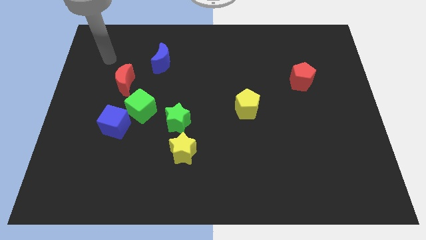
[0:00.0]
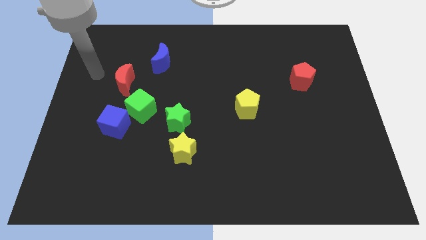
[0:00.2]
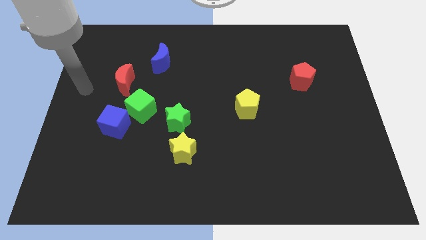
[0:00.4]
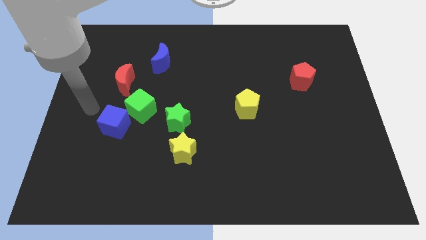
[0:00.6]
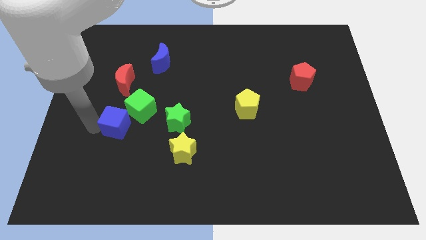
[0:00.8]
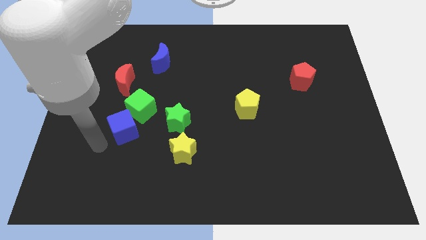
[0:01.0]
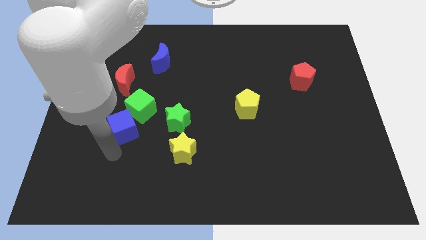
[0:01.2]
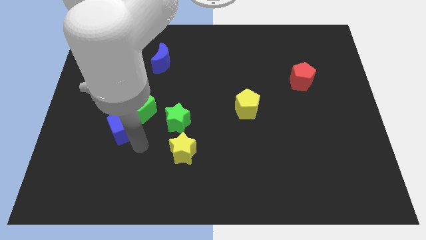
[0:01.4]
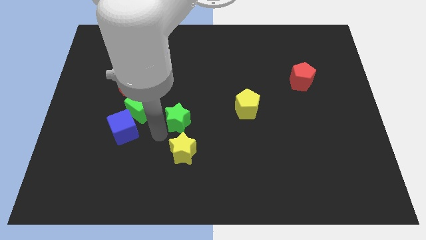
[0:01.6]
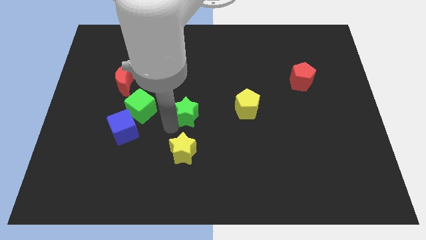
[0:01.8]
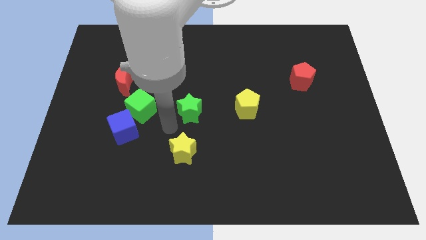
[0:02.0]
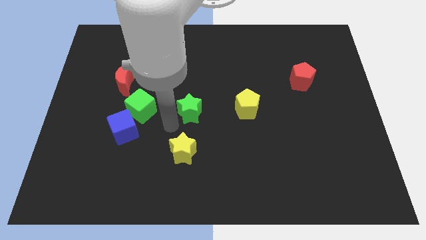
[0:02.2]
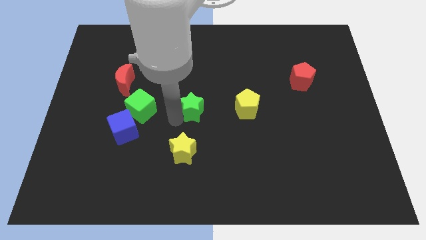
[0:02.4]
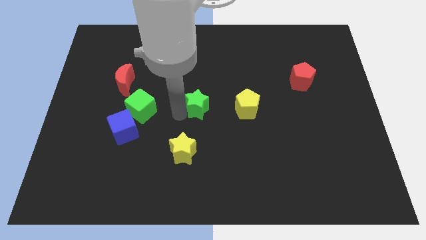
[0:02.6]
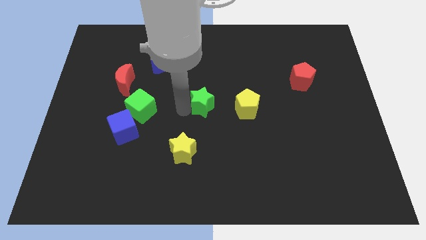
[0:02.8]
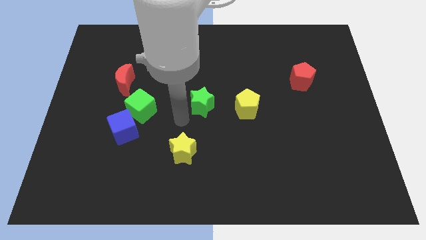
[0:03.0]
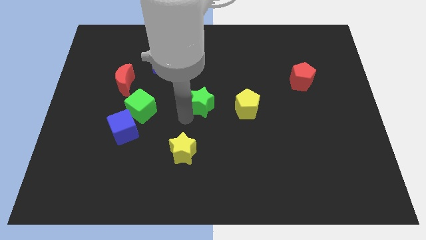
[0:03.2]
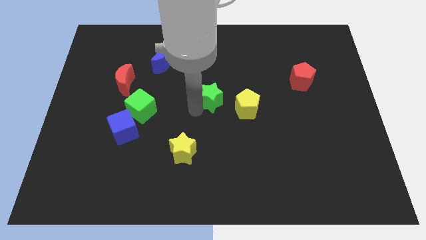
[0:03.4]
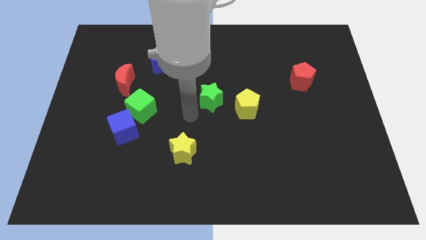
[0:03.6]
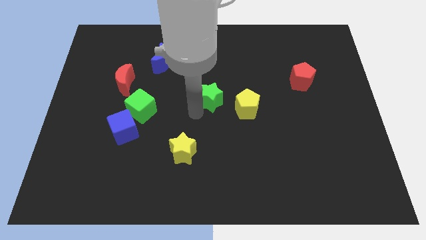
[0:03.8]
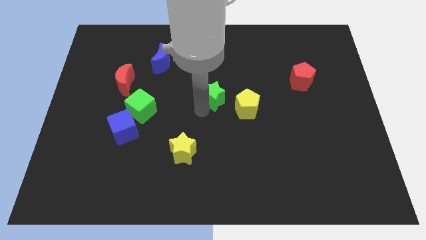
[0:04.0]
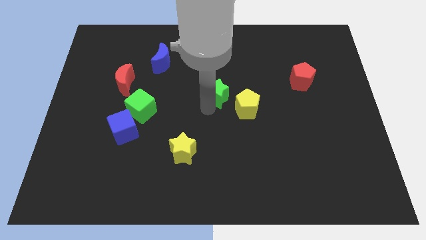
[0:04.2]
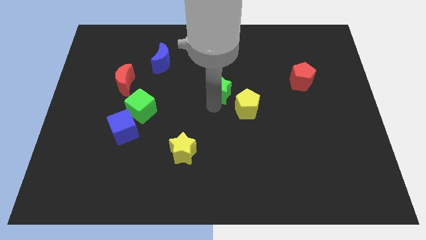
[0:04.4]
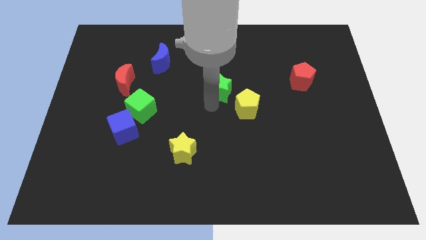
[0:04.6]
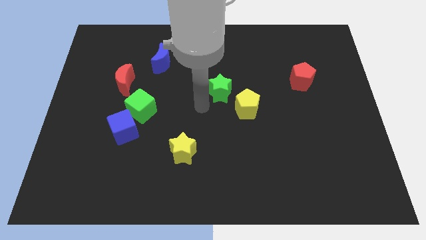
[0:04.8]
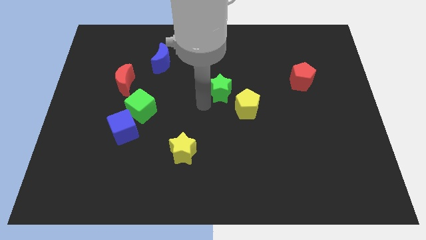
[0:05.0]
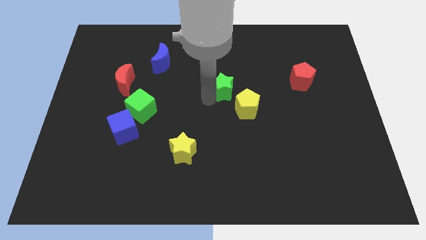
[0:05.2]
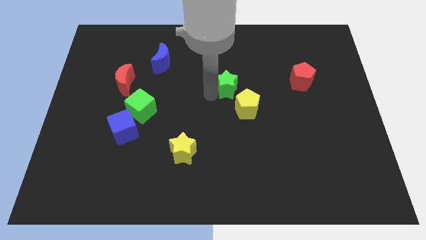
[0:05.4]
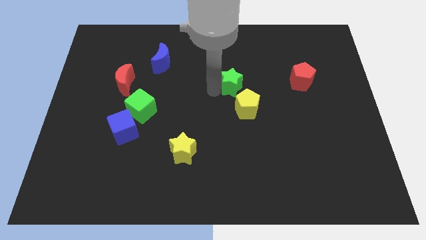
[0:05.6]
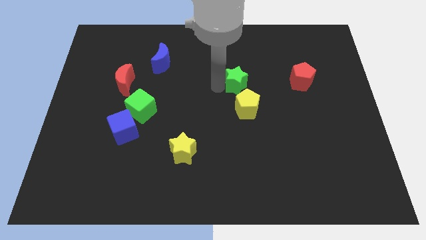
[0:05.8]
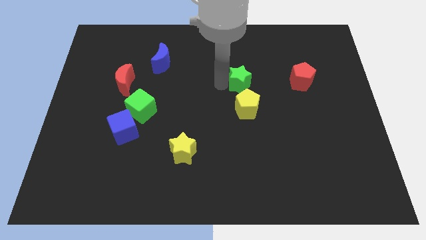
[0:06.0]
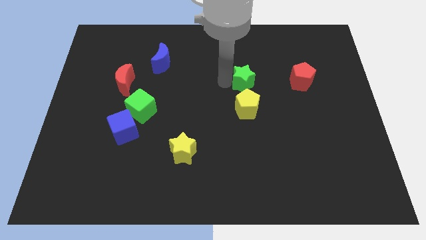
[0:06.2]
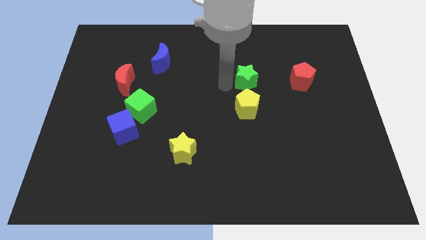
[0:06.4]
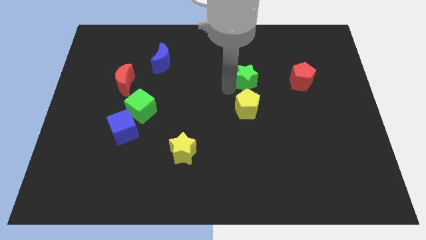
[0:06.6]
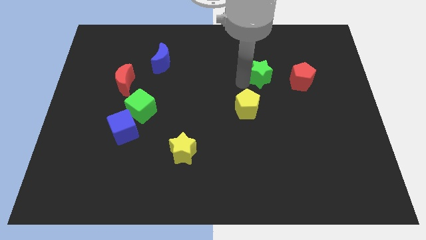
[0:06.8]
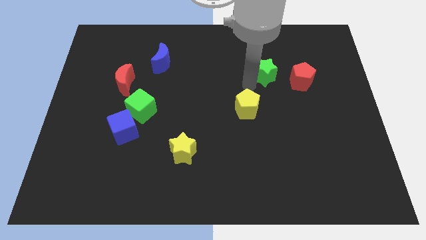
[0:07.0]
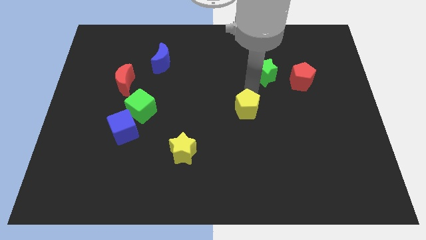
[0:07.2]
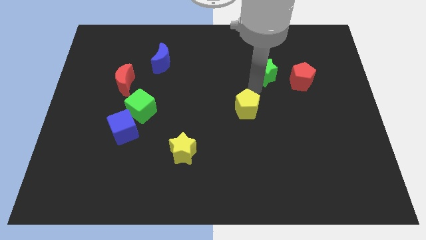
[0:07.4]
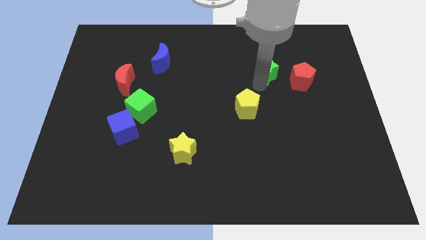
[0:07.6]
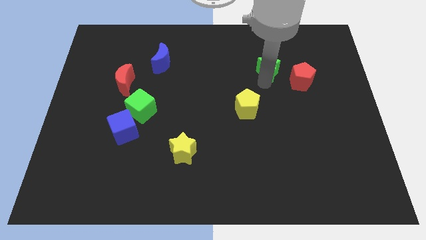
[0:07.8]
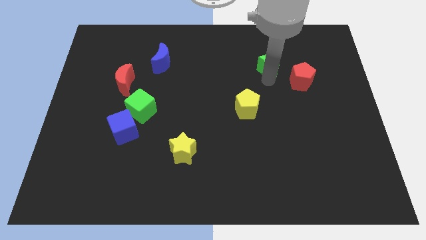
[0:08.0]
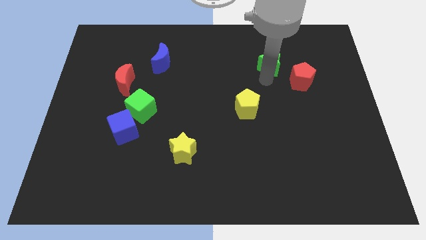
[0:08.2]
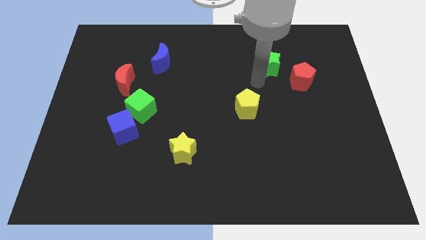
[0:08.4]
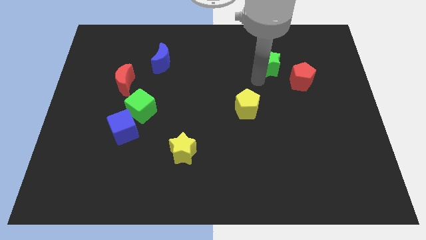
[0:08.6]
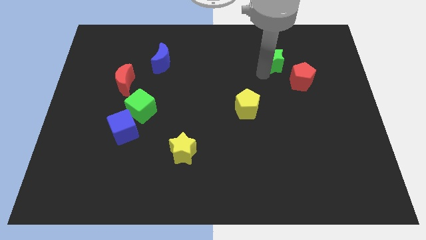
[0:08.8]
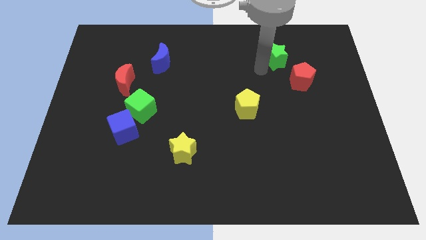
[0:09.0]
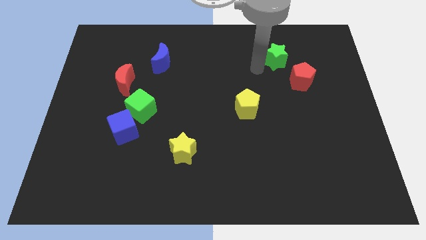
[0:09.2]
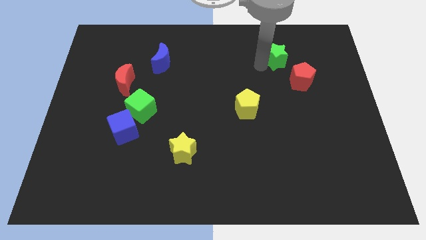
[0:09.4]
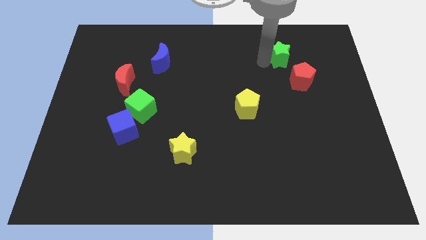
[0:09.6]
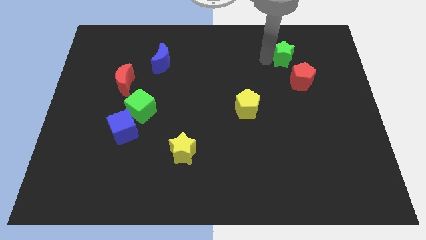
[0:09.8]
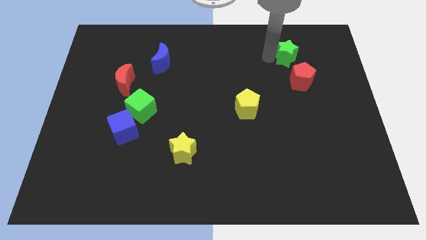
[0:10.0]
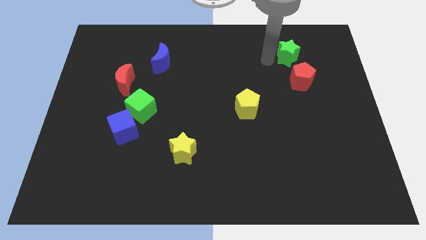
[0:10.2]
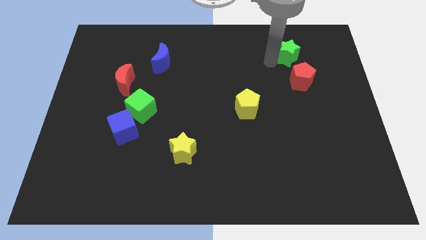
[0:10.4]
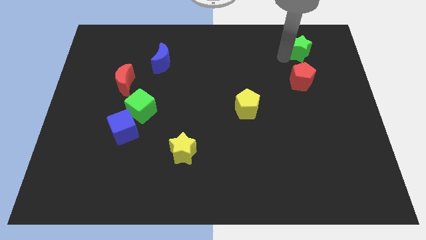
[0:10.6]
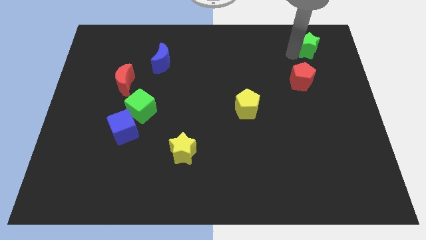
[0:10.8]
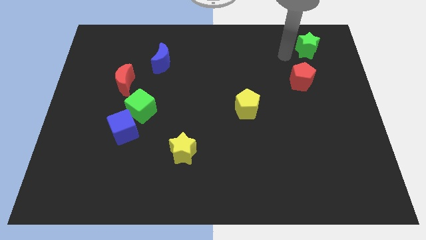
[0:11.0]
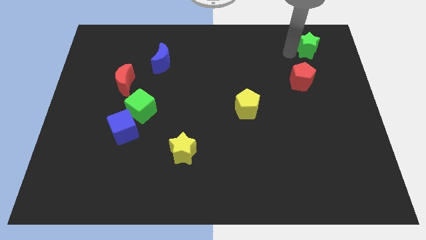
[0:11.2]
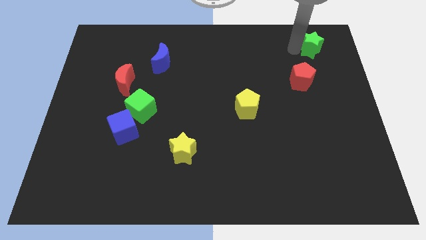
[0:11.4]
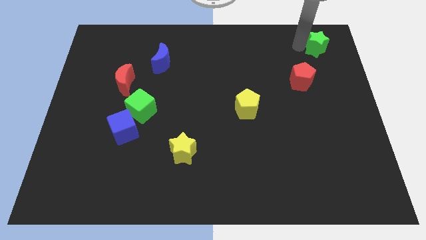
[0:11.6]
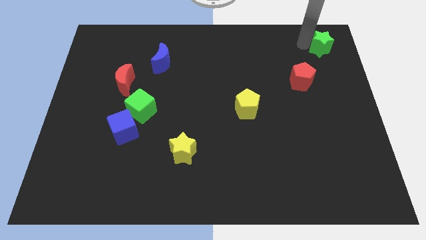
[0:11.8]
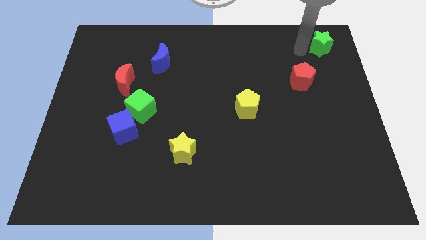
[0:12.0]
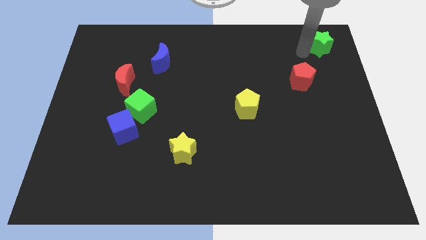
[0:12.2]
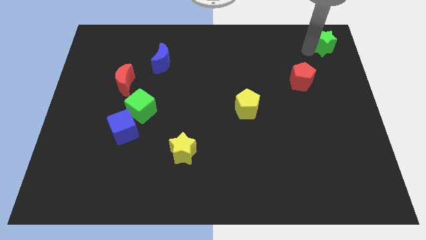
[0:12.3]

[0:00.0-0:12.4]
move the green star to the top right of the board

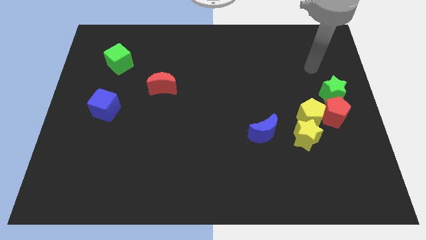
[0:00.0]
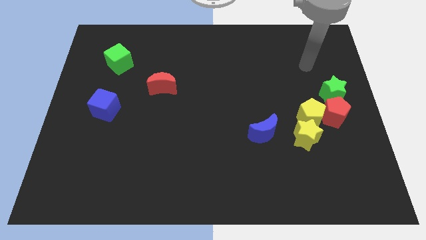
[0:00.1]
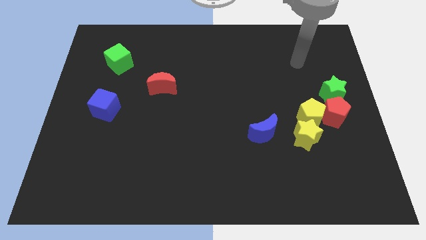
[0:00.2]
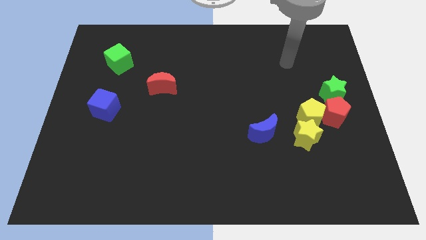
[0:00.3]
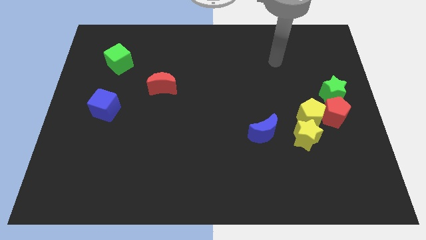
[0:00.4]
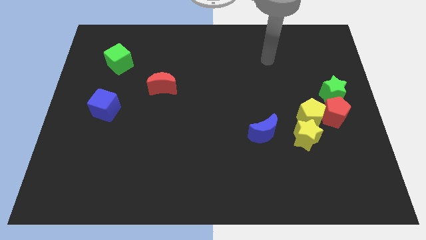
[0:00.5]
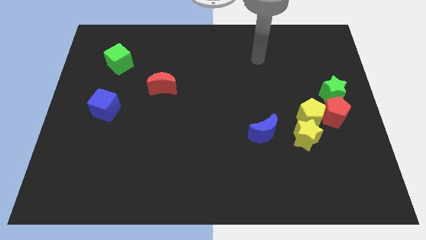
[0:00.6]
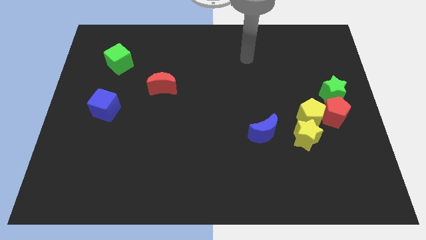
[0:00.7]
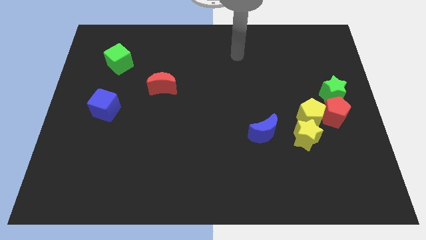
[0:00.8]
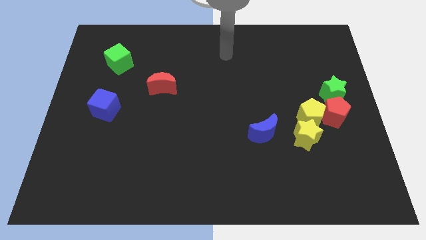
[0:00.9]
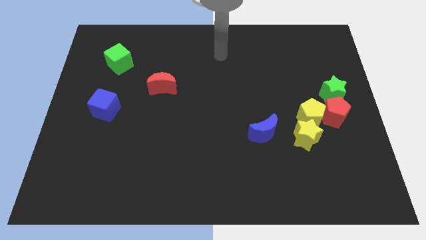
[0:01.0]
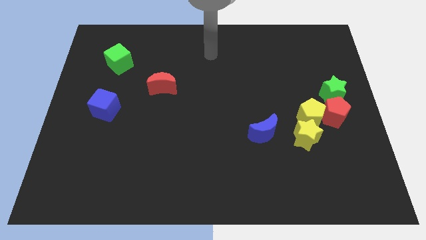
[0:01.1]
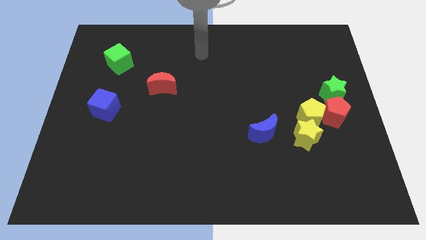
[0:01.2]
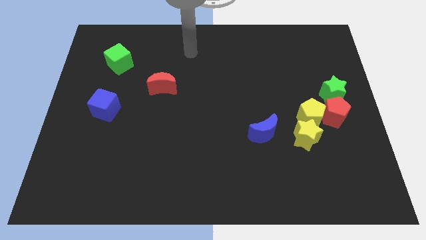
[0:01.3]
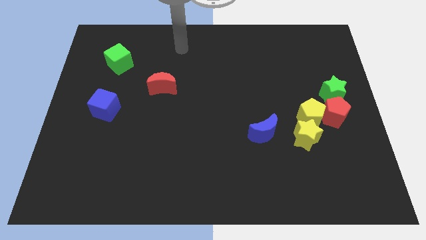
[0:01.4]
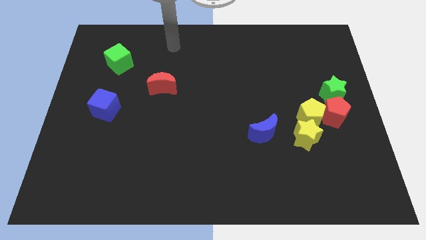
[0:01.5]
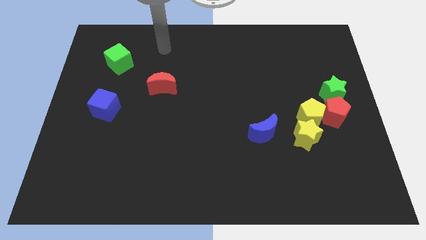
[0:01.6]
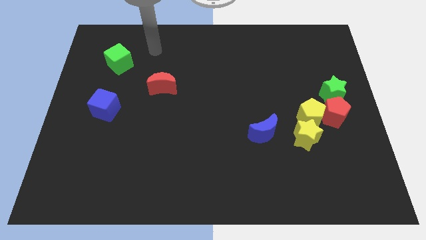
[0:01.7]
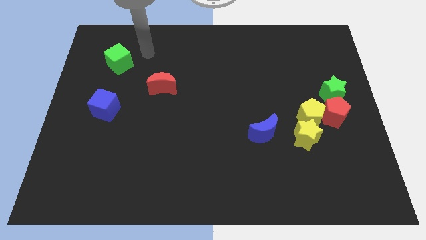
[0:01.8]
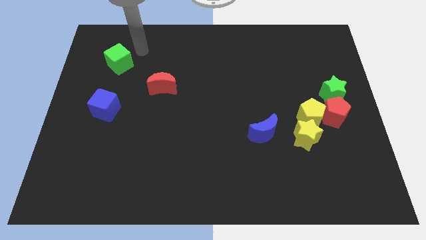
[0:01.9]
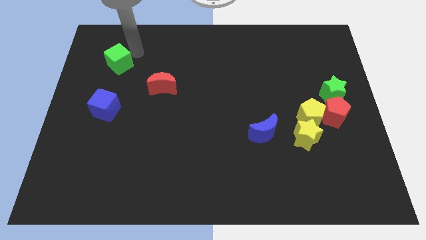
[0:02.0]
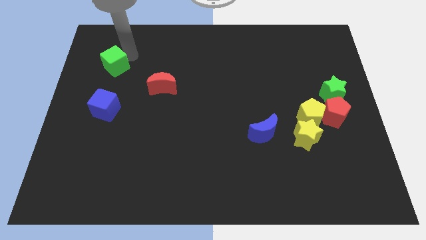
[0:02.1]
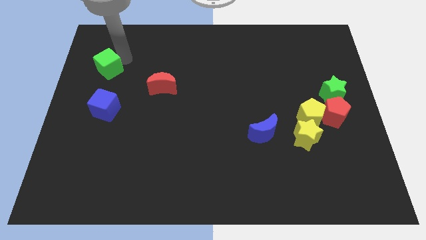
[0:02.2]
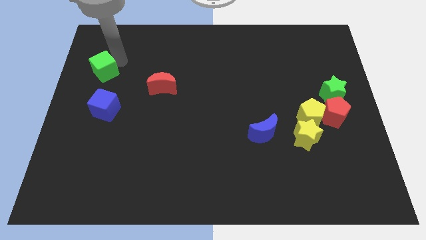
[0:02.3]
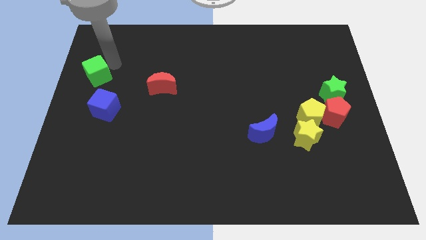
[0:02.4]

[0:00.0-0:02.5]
put the green cube to the center left
